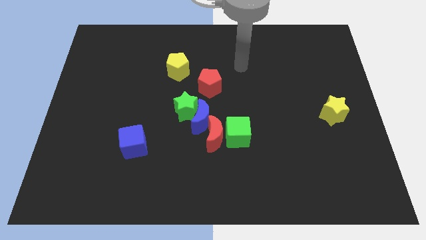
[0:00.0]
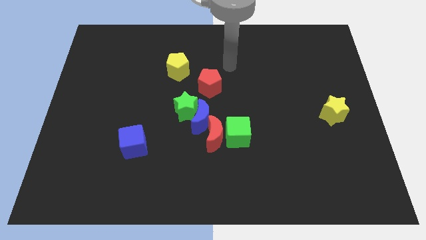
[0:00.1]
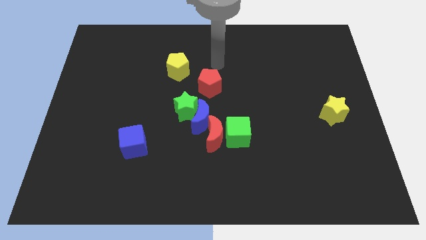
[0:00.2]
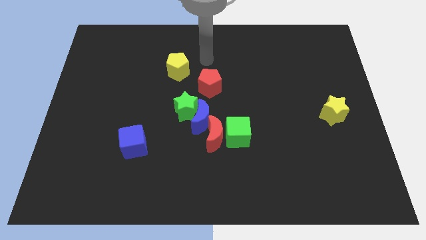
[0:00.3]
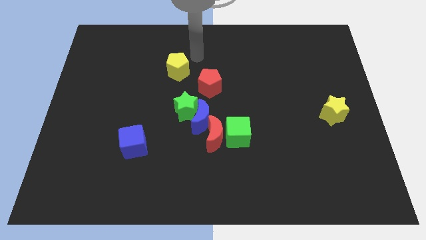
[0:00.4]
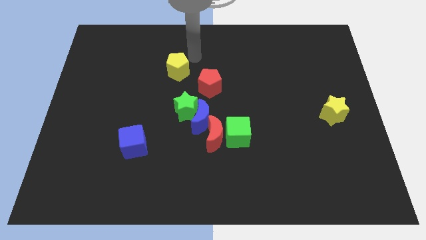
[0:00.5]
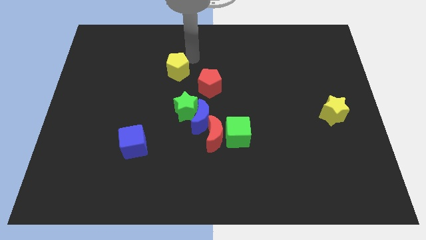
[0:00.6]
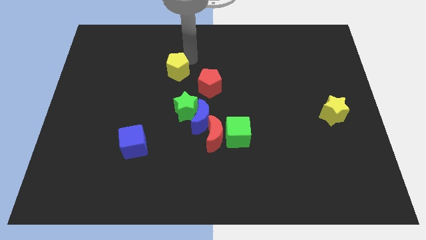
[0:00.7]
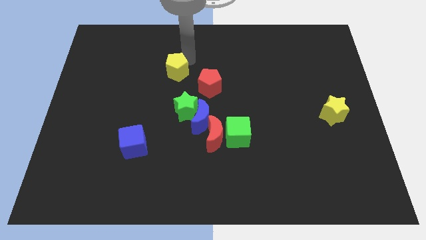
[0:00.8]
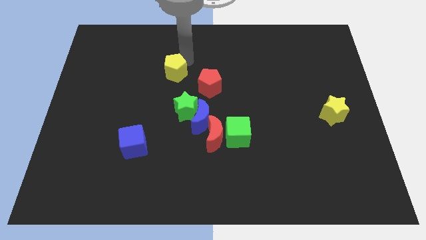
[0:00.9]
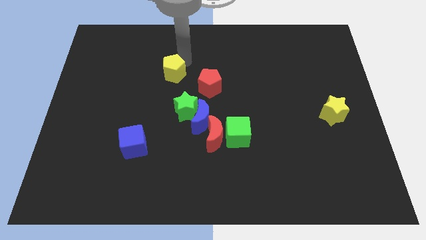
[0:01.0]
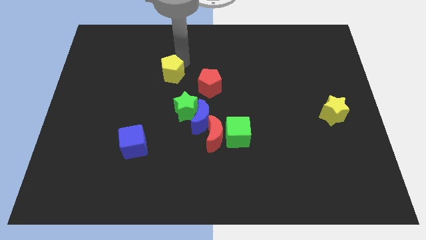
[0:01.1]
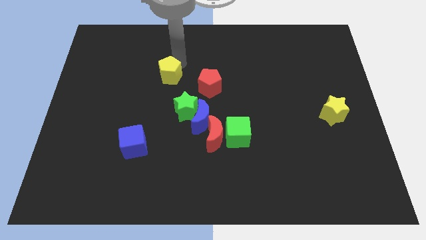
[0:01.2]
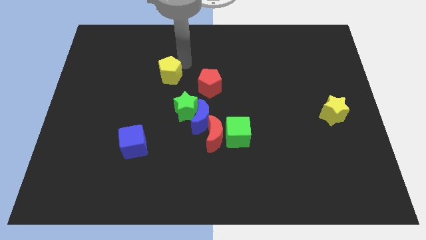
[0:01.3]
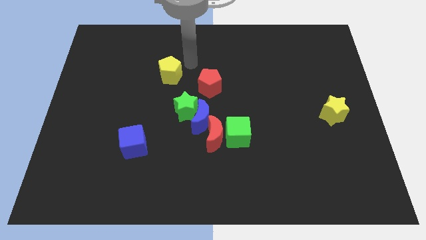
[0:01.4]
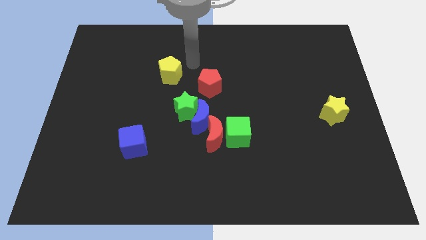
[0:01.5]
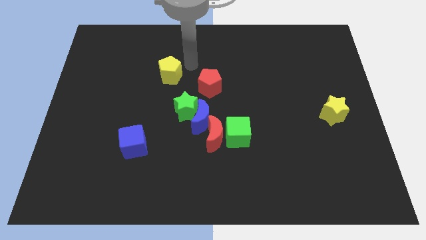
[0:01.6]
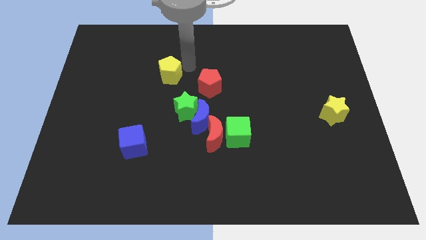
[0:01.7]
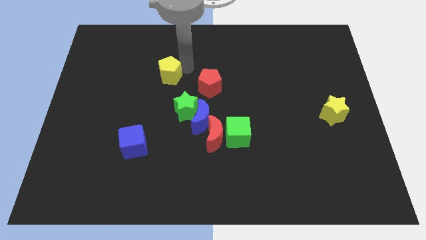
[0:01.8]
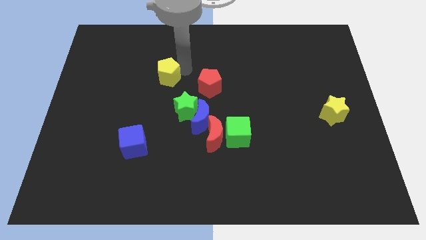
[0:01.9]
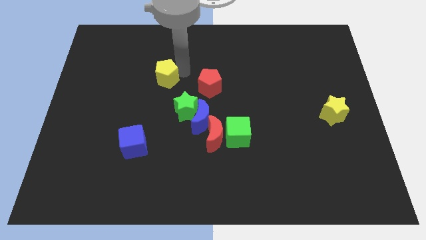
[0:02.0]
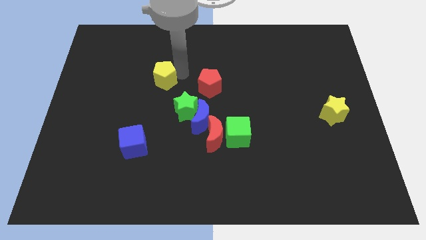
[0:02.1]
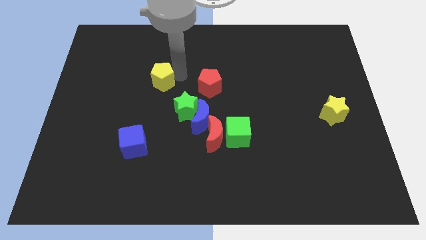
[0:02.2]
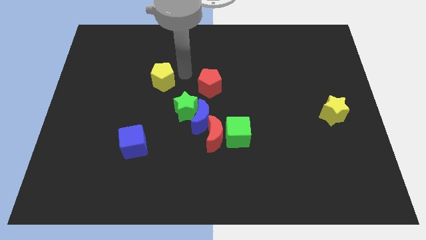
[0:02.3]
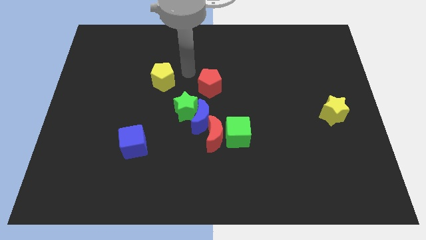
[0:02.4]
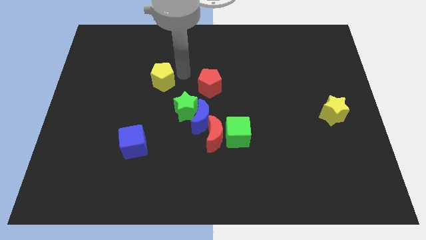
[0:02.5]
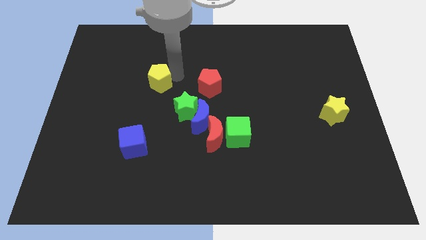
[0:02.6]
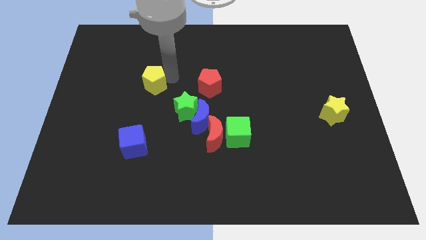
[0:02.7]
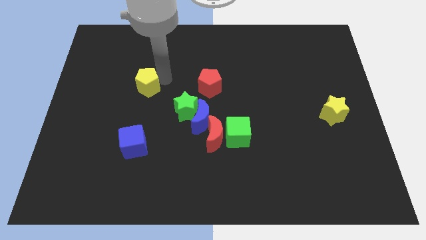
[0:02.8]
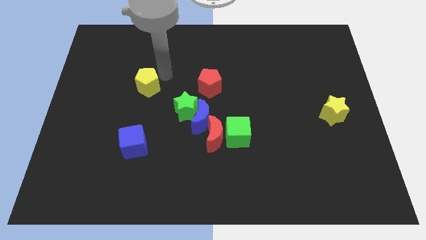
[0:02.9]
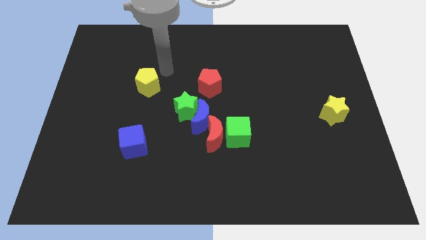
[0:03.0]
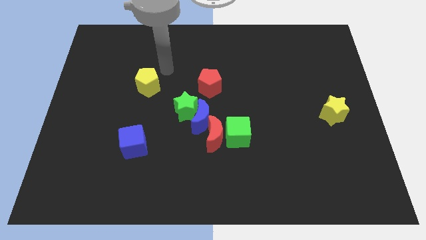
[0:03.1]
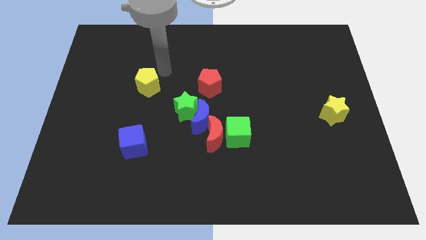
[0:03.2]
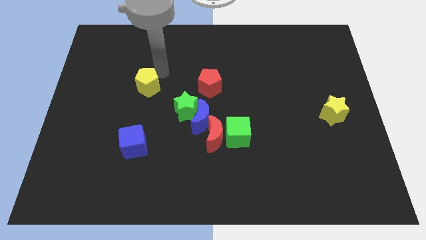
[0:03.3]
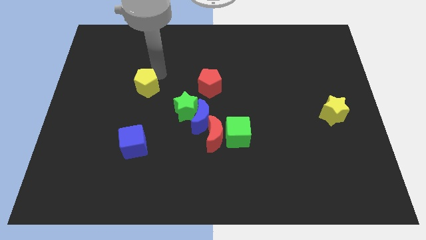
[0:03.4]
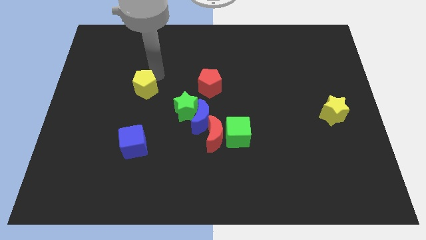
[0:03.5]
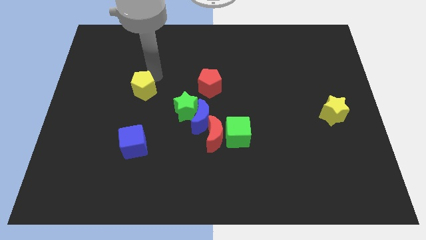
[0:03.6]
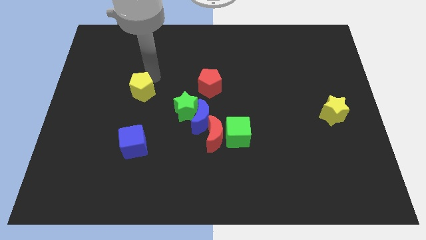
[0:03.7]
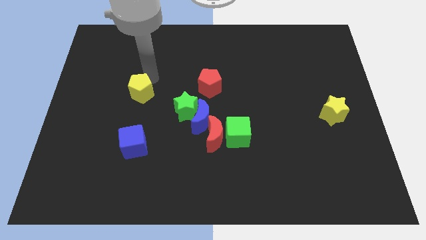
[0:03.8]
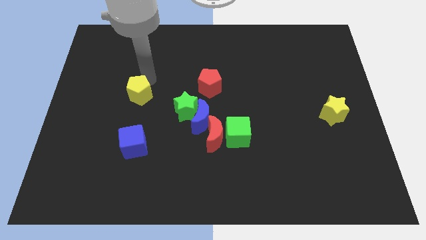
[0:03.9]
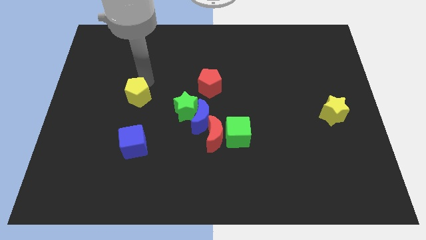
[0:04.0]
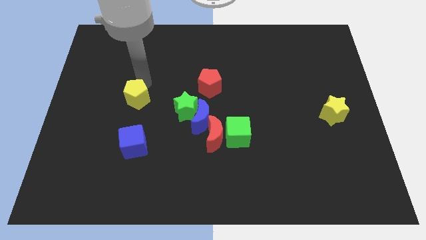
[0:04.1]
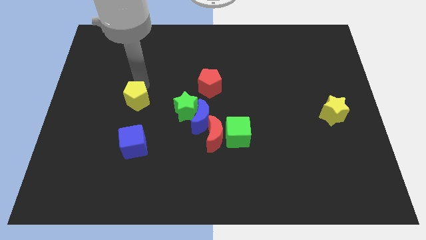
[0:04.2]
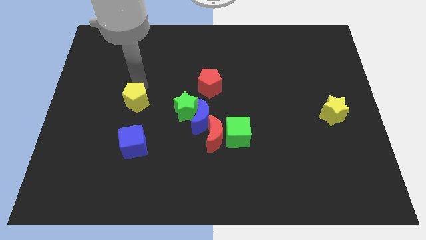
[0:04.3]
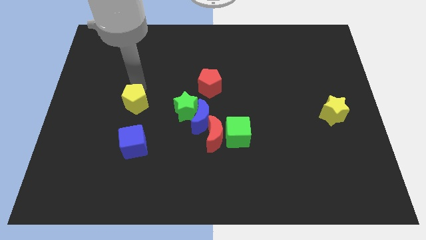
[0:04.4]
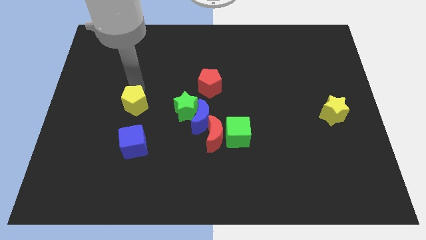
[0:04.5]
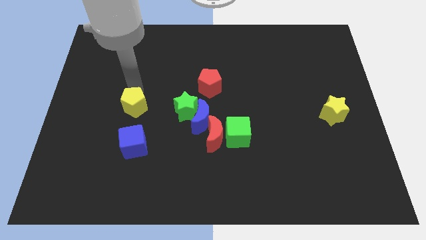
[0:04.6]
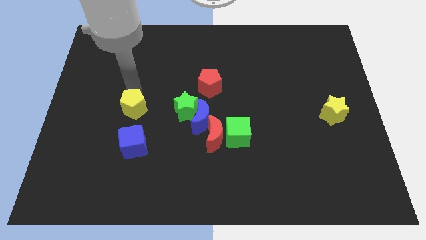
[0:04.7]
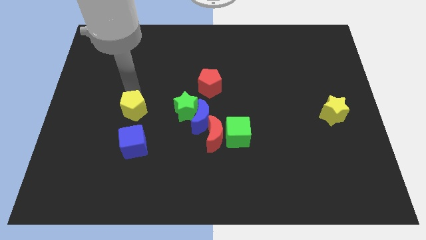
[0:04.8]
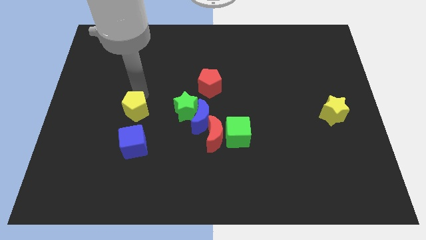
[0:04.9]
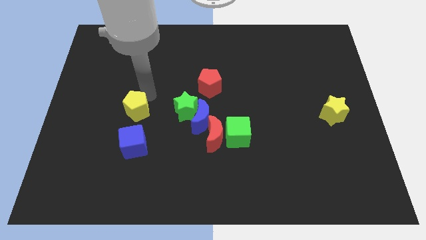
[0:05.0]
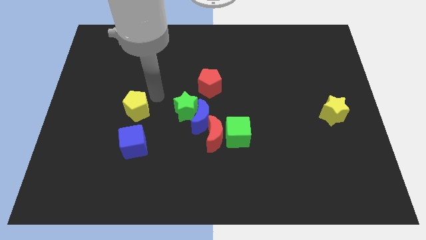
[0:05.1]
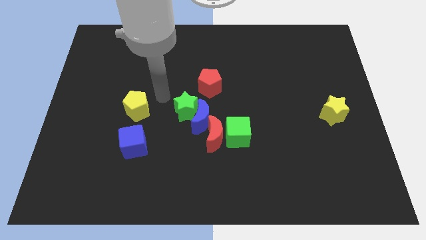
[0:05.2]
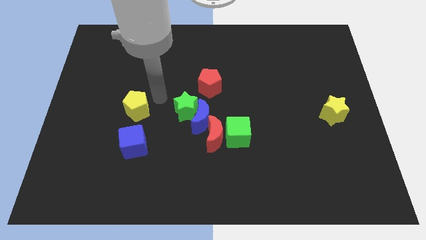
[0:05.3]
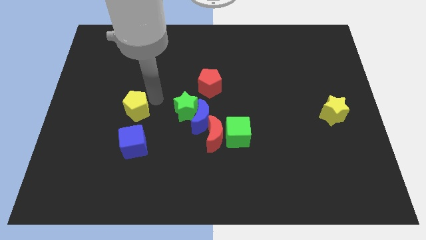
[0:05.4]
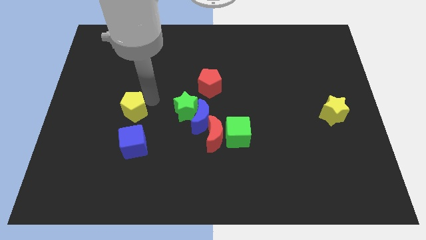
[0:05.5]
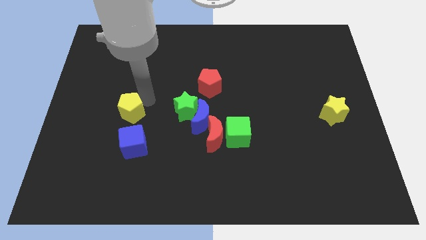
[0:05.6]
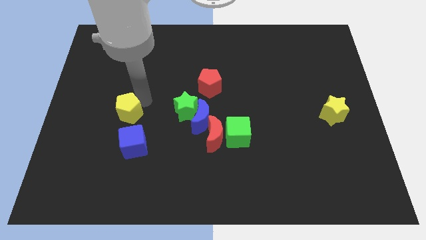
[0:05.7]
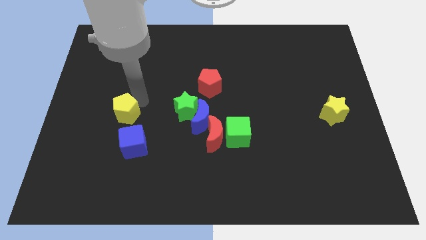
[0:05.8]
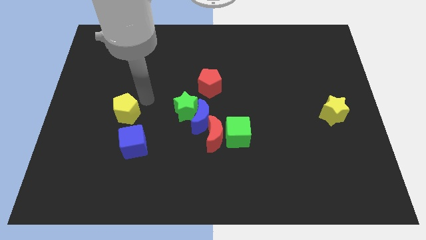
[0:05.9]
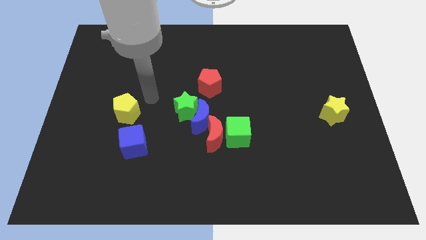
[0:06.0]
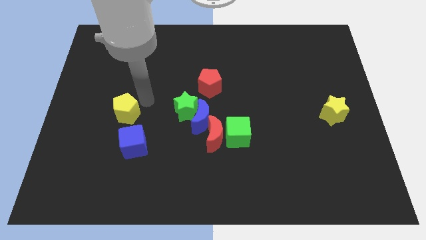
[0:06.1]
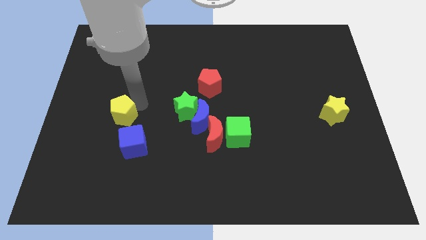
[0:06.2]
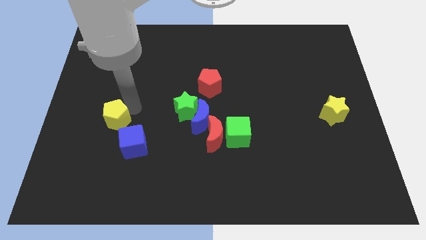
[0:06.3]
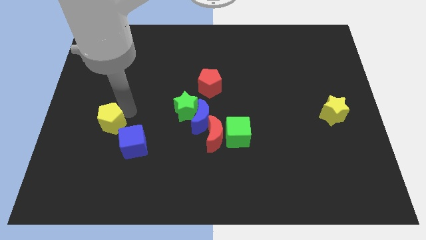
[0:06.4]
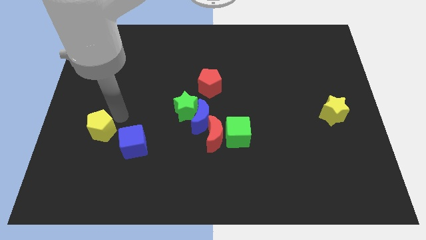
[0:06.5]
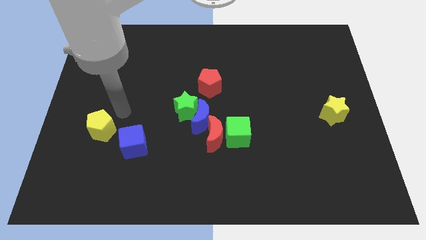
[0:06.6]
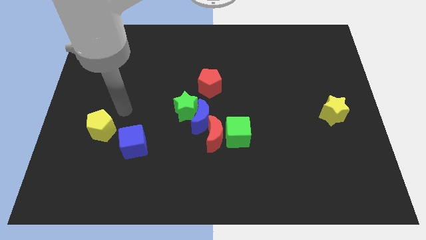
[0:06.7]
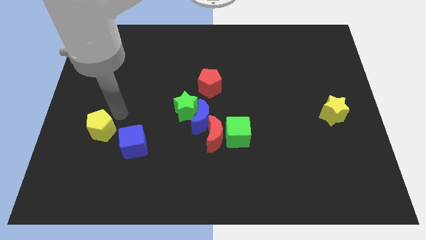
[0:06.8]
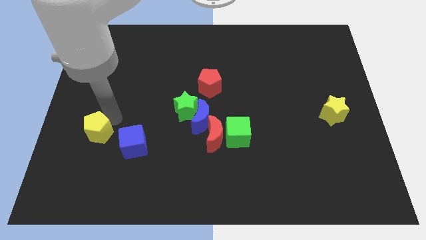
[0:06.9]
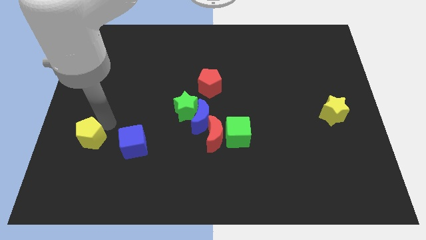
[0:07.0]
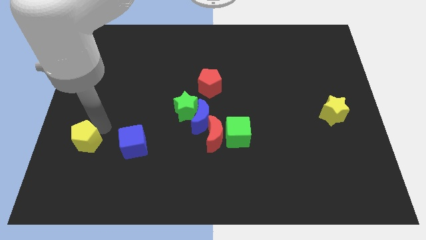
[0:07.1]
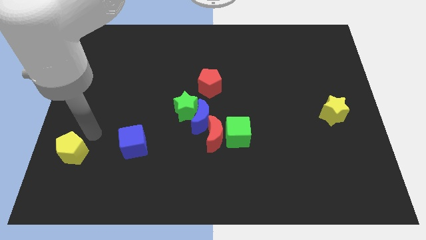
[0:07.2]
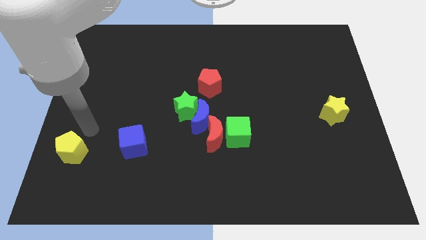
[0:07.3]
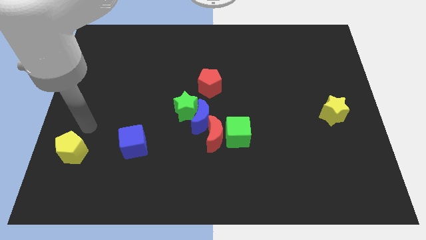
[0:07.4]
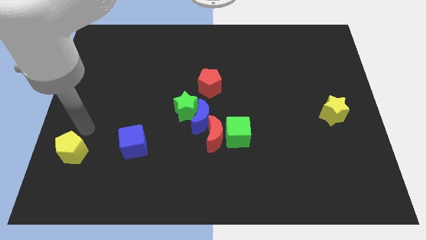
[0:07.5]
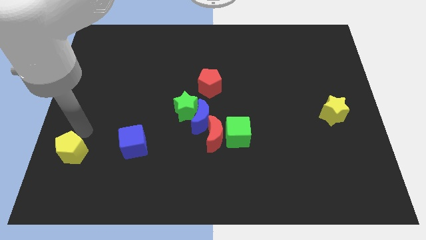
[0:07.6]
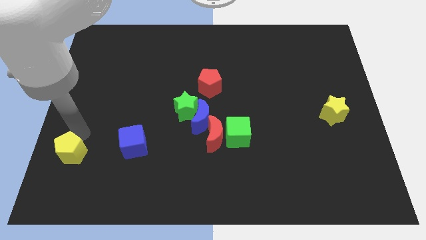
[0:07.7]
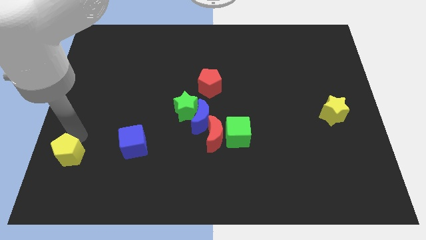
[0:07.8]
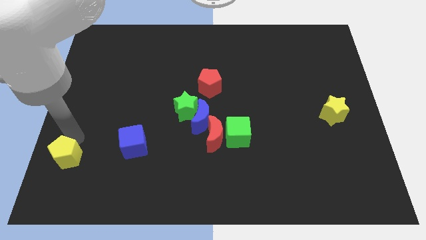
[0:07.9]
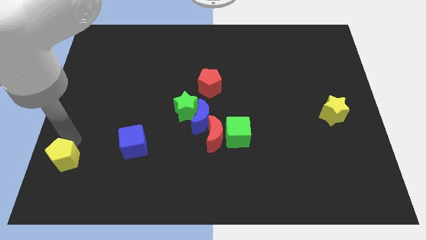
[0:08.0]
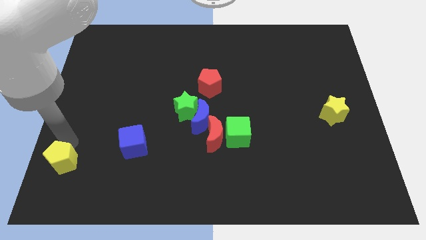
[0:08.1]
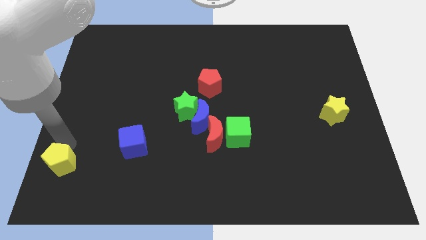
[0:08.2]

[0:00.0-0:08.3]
move the yellow pentagon to the bottom left
